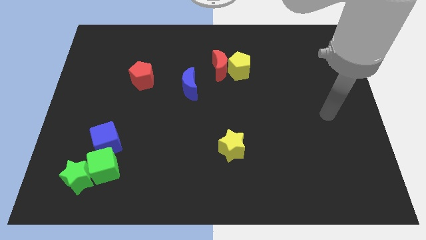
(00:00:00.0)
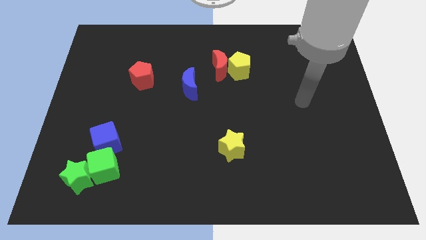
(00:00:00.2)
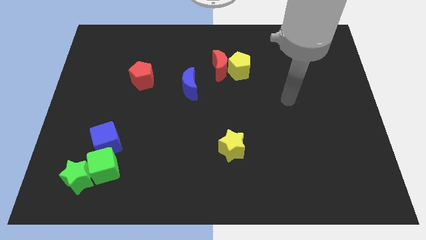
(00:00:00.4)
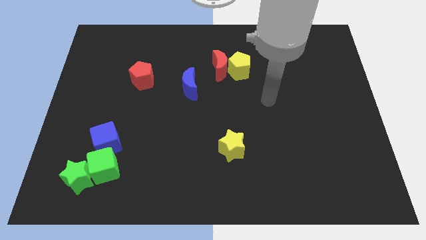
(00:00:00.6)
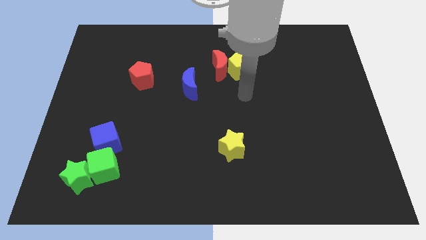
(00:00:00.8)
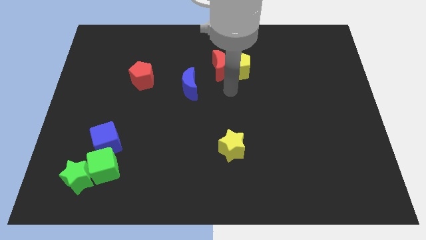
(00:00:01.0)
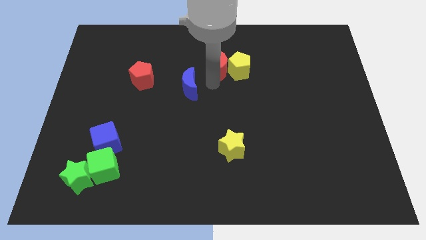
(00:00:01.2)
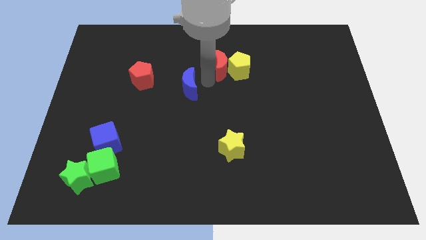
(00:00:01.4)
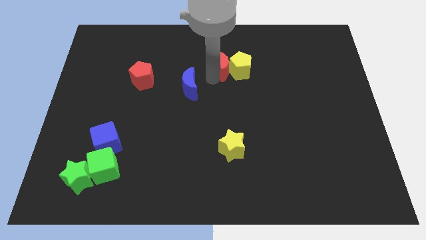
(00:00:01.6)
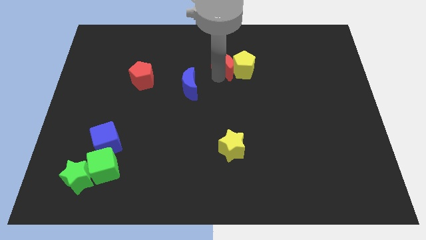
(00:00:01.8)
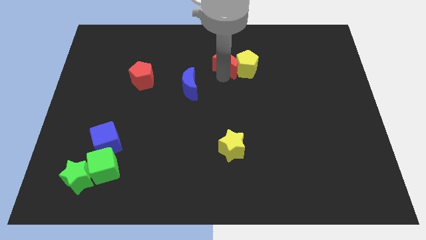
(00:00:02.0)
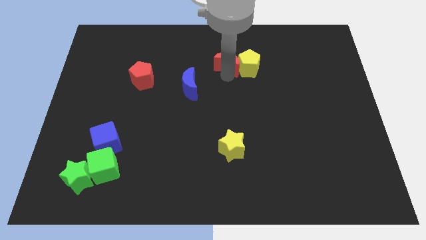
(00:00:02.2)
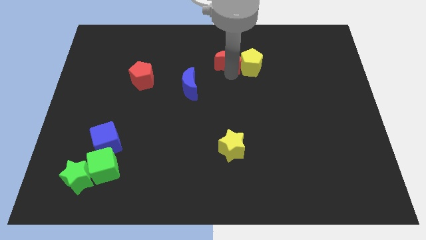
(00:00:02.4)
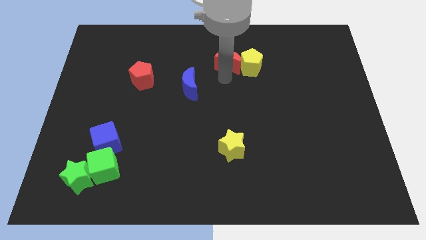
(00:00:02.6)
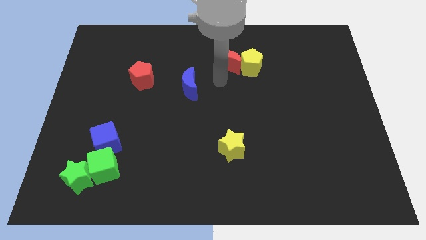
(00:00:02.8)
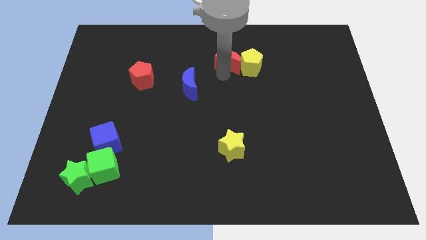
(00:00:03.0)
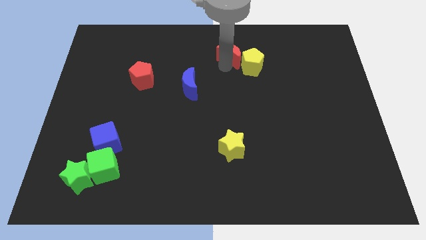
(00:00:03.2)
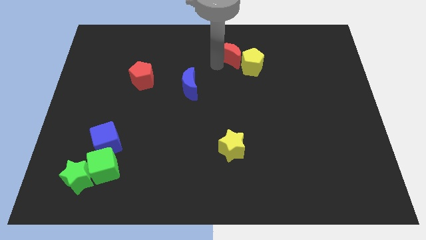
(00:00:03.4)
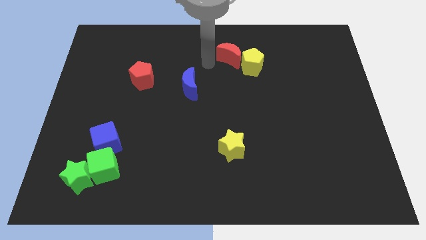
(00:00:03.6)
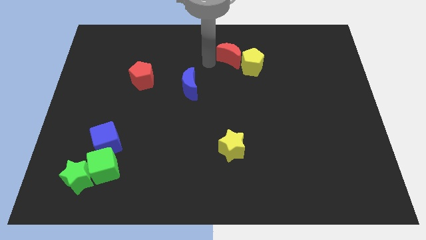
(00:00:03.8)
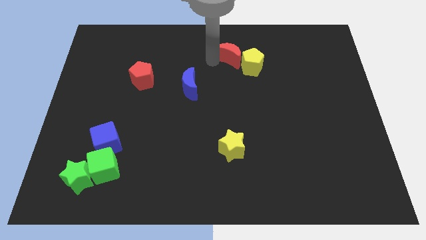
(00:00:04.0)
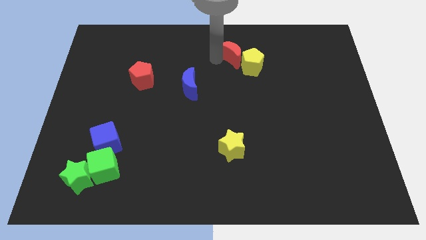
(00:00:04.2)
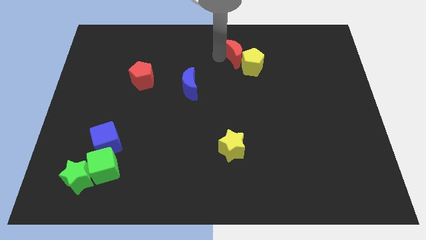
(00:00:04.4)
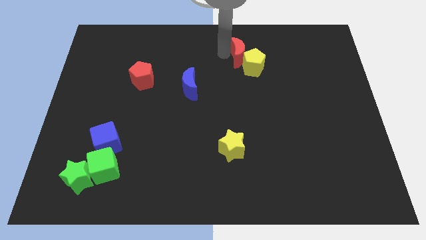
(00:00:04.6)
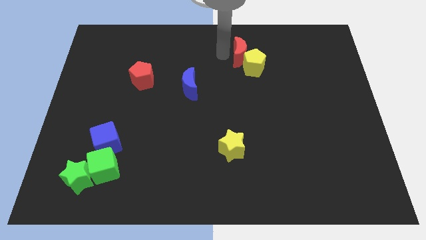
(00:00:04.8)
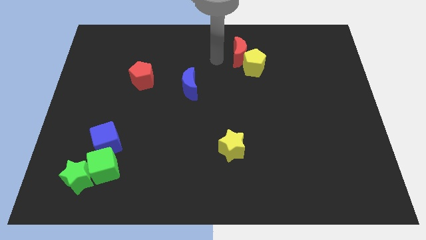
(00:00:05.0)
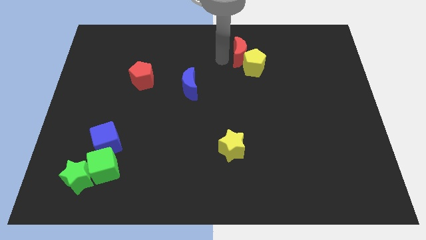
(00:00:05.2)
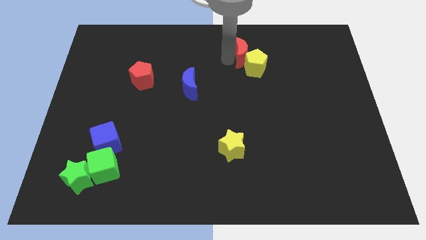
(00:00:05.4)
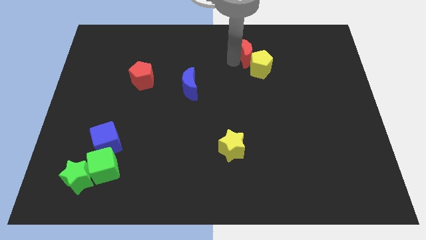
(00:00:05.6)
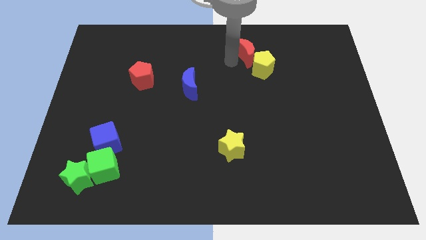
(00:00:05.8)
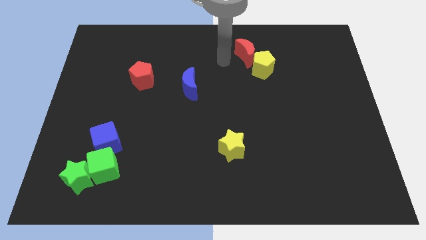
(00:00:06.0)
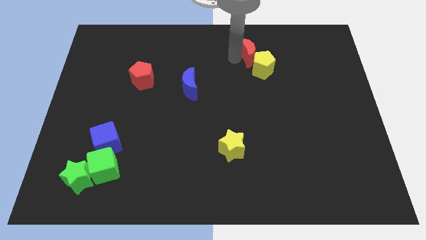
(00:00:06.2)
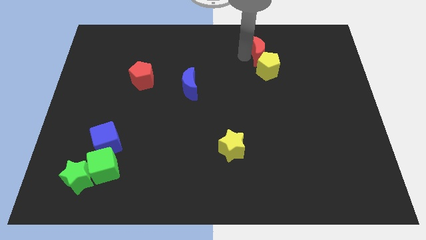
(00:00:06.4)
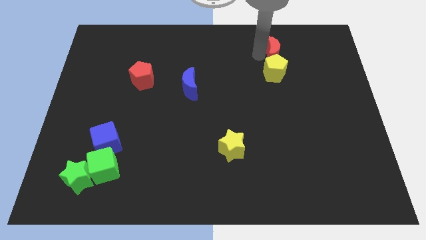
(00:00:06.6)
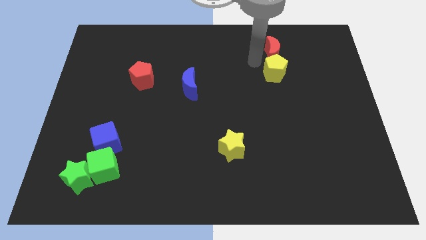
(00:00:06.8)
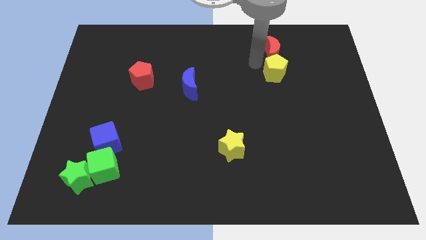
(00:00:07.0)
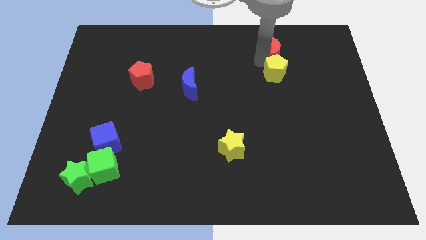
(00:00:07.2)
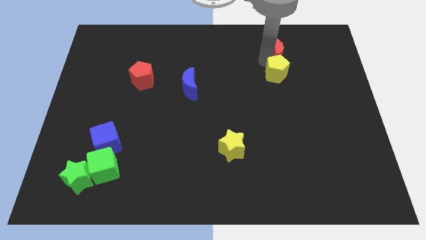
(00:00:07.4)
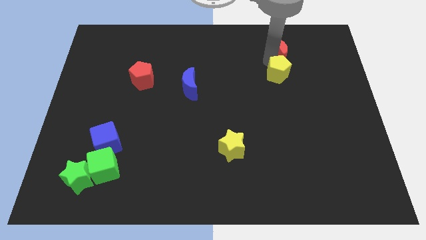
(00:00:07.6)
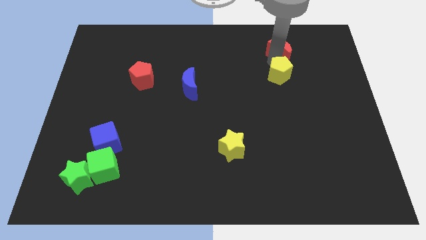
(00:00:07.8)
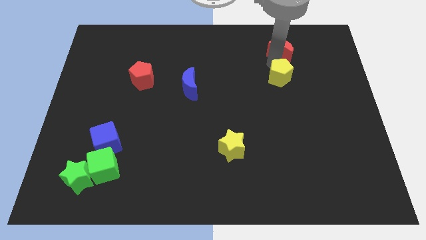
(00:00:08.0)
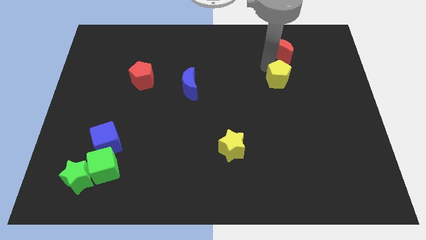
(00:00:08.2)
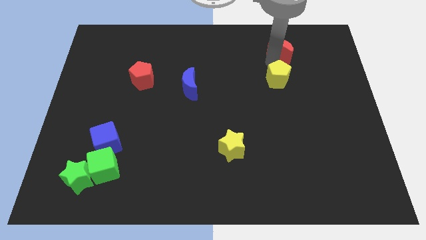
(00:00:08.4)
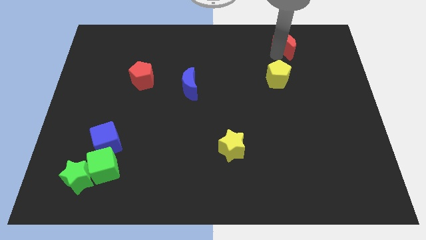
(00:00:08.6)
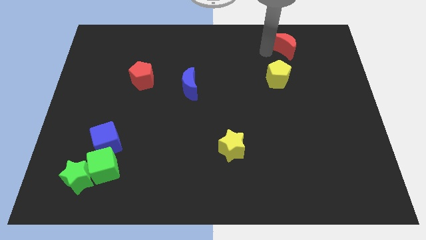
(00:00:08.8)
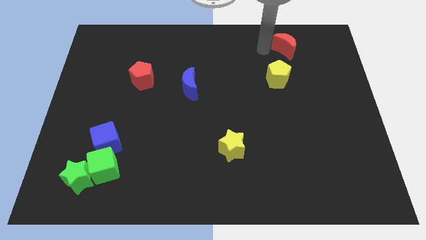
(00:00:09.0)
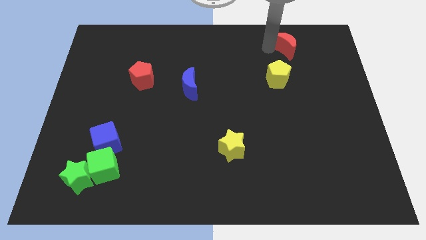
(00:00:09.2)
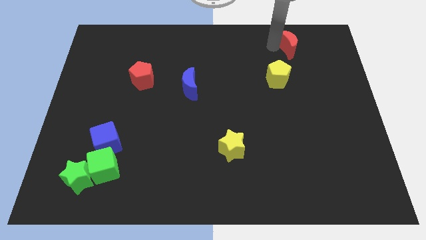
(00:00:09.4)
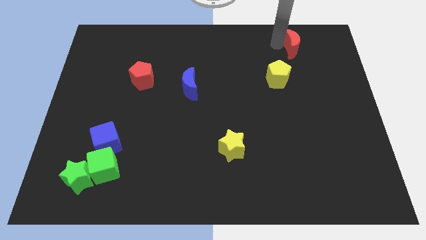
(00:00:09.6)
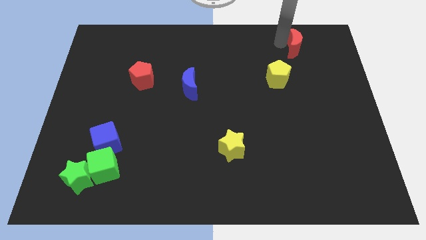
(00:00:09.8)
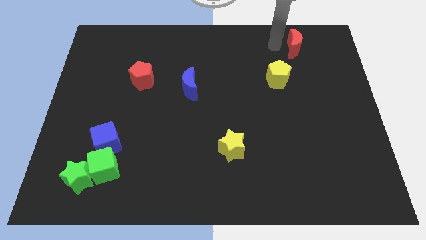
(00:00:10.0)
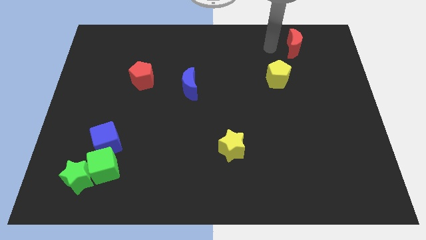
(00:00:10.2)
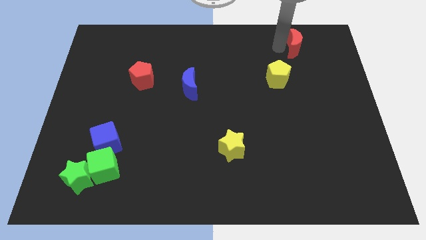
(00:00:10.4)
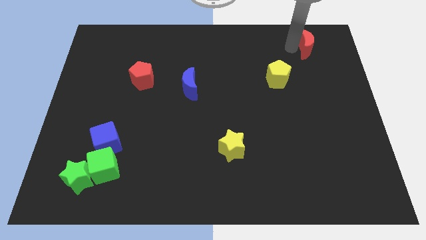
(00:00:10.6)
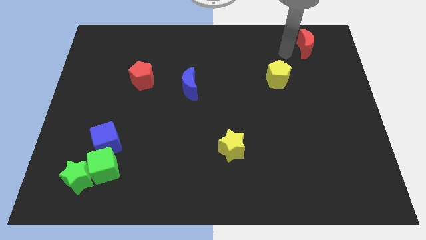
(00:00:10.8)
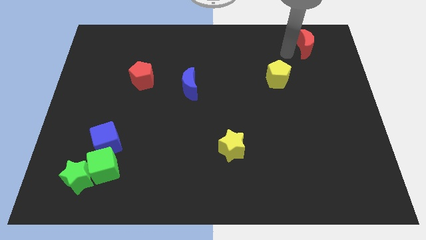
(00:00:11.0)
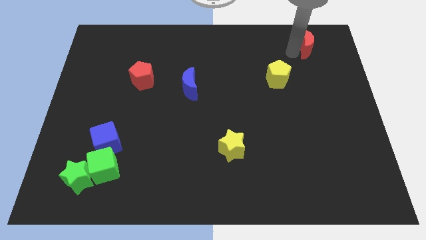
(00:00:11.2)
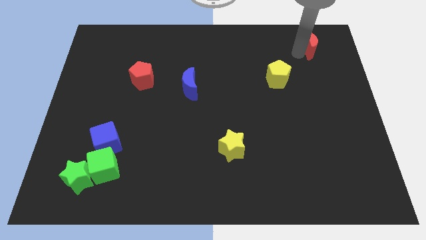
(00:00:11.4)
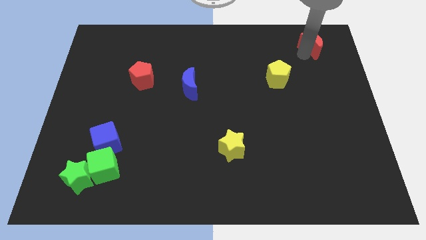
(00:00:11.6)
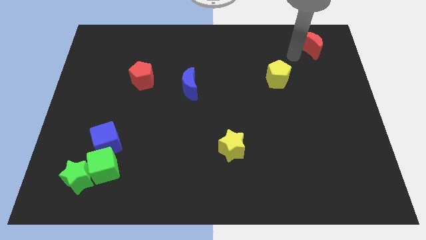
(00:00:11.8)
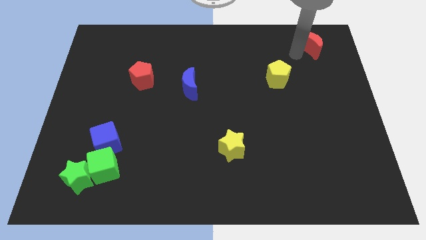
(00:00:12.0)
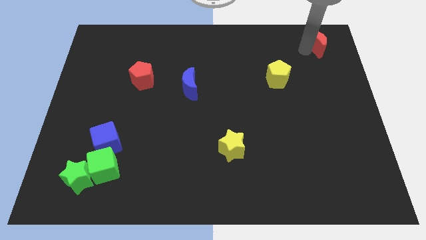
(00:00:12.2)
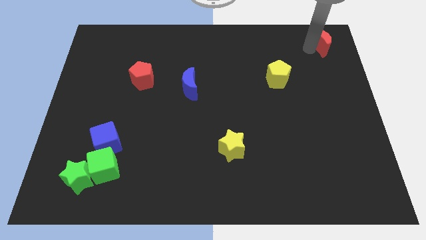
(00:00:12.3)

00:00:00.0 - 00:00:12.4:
push the red moon to the top right of the board
